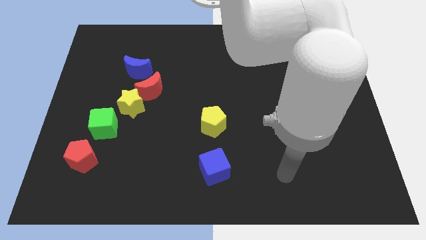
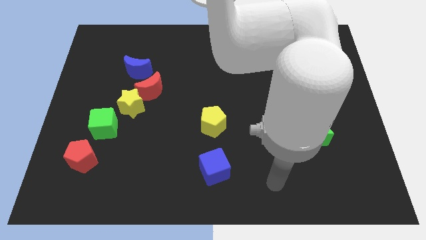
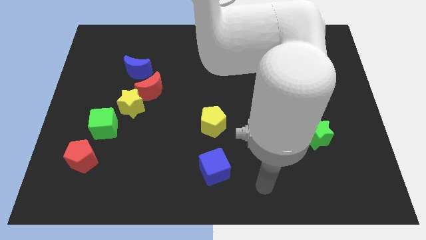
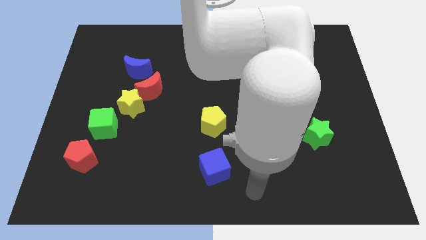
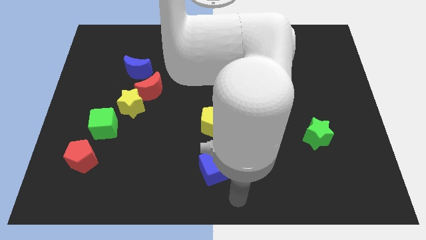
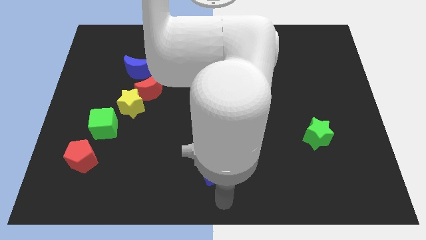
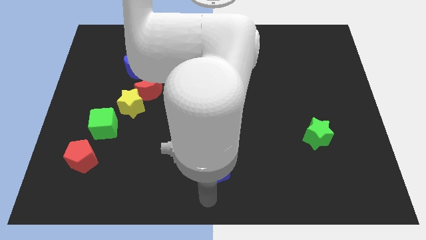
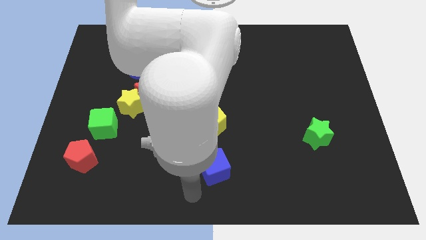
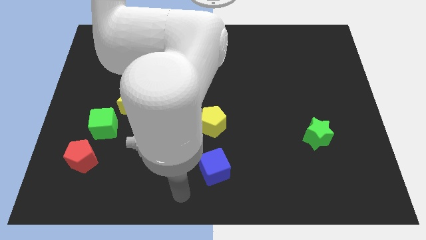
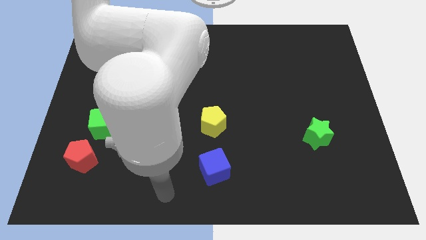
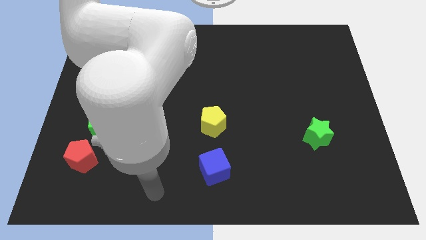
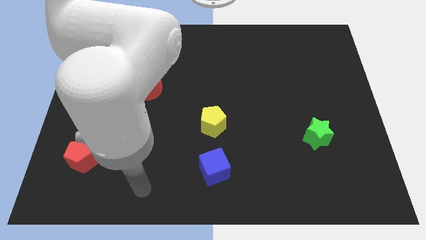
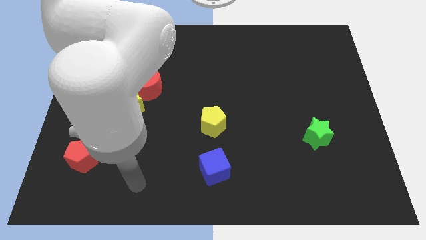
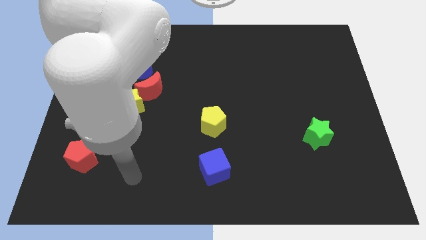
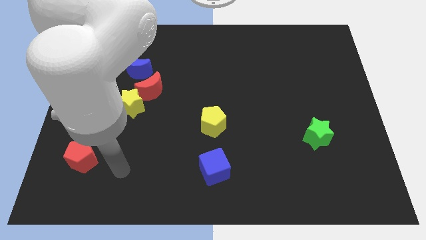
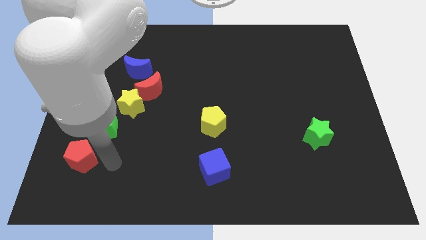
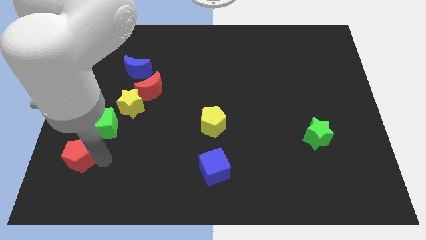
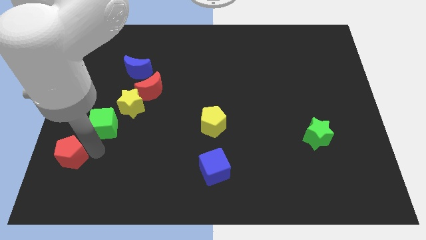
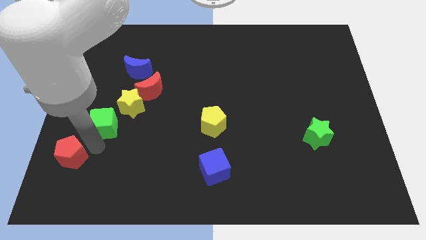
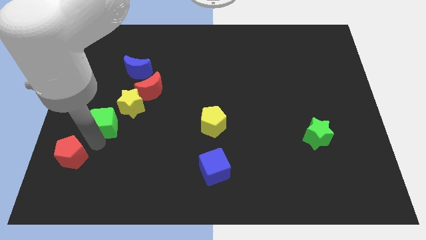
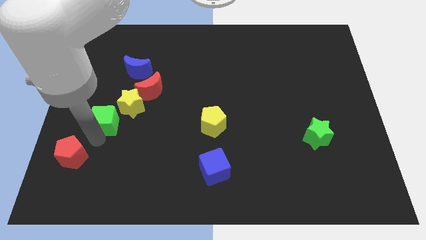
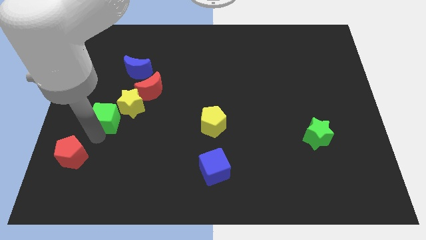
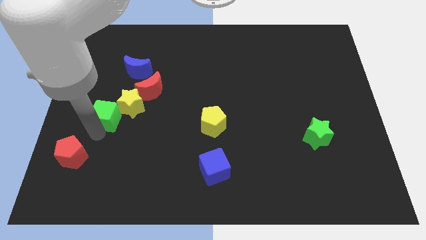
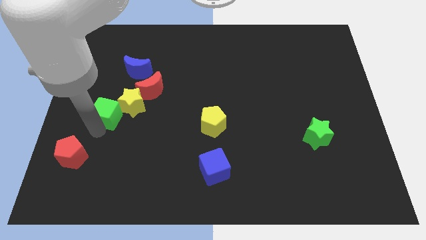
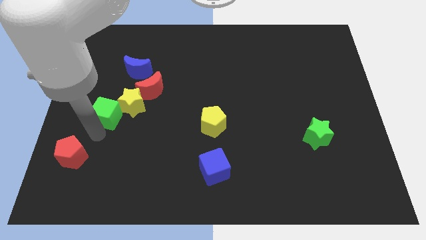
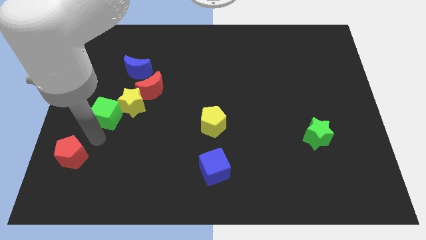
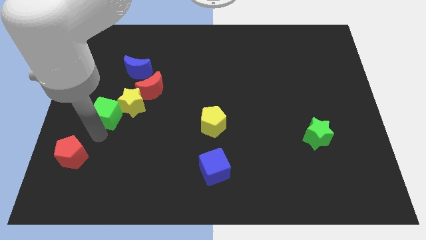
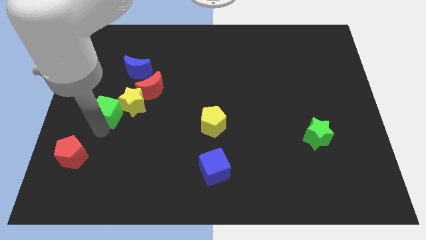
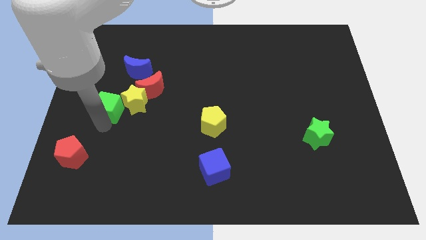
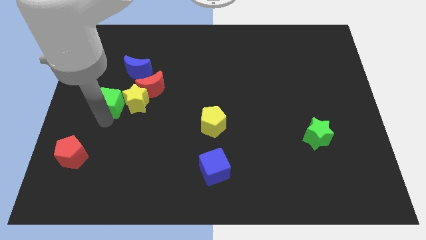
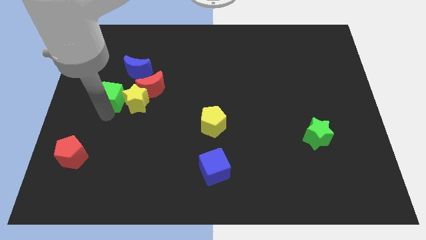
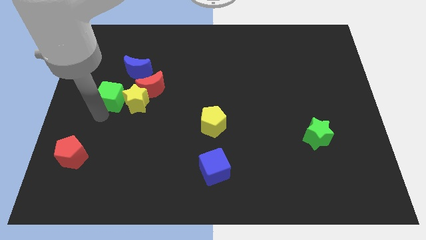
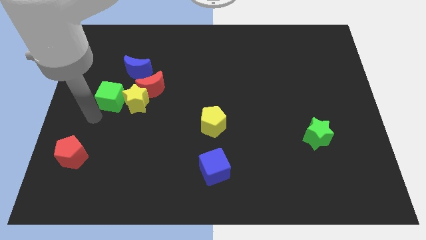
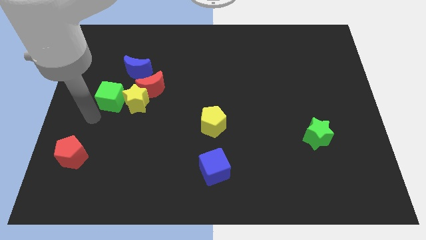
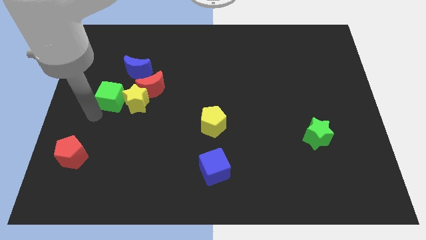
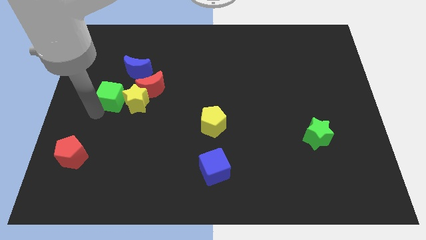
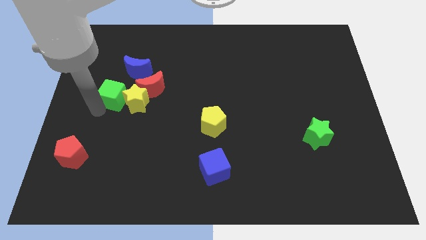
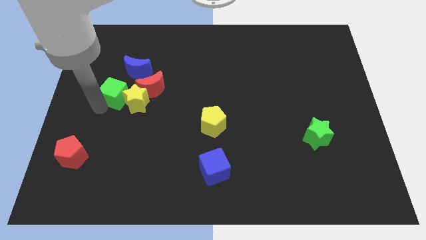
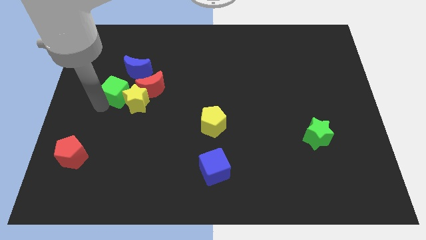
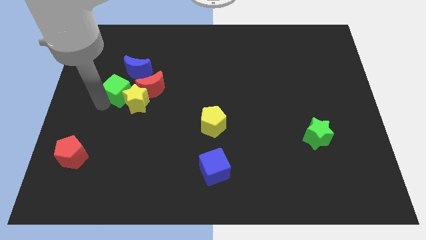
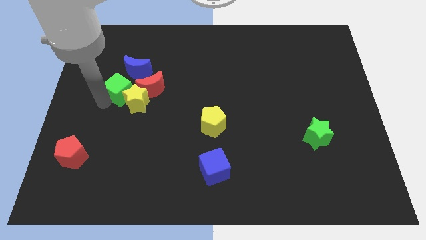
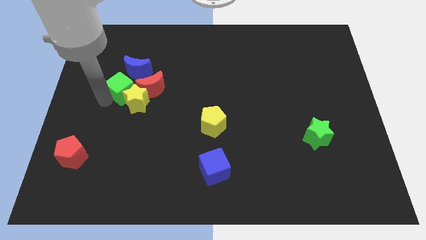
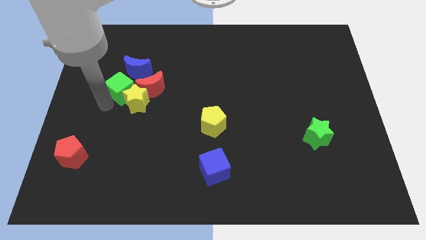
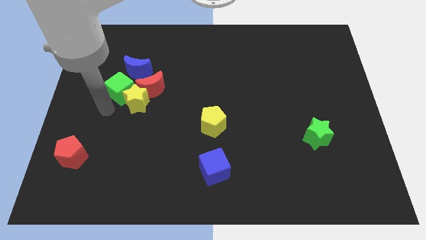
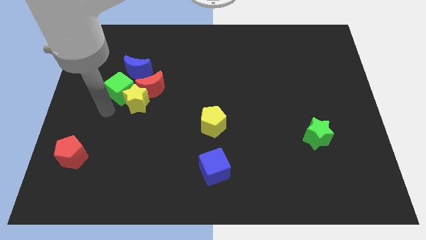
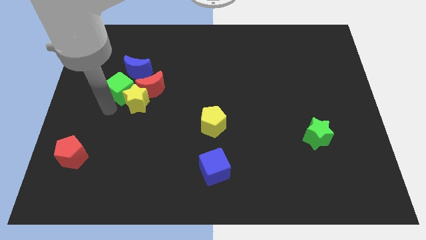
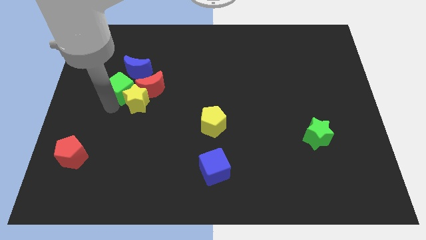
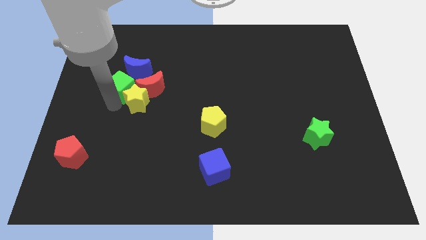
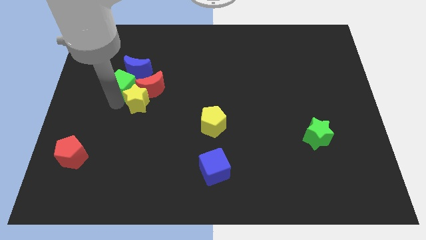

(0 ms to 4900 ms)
put the green cube close to the blue moon

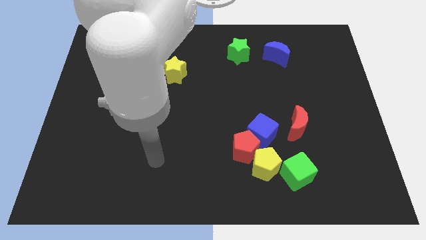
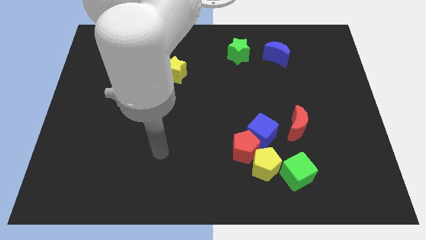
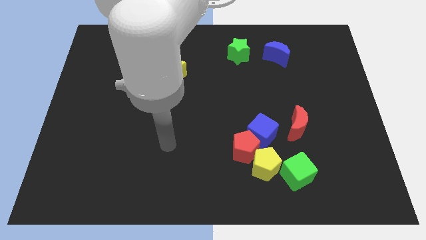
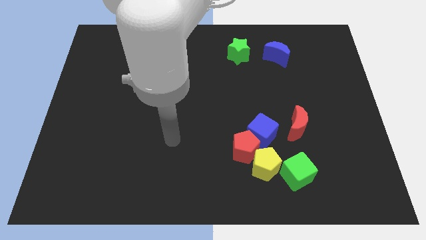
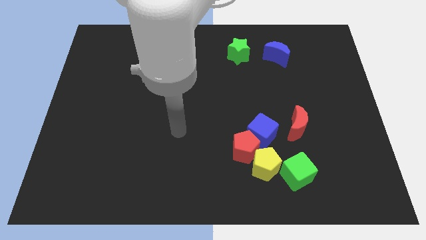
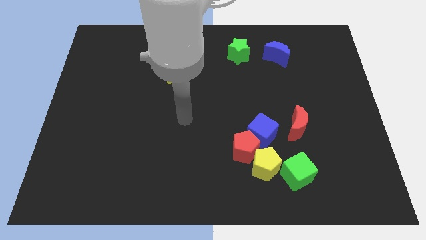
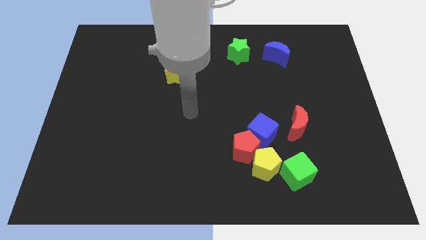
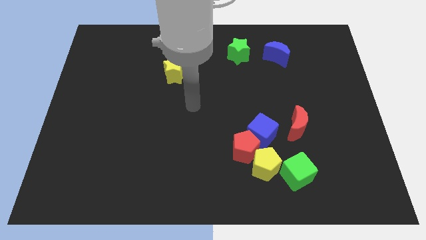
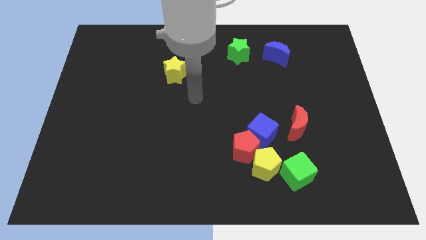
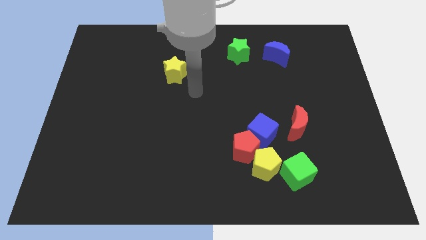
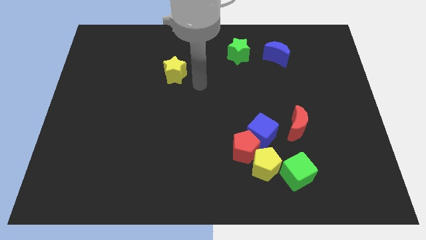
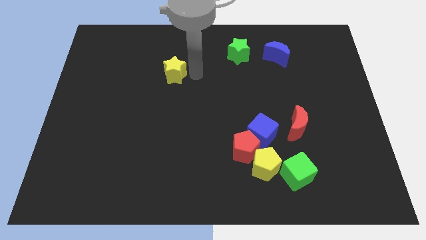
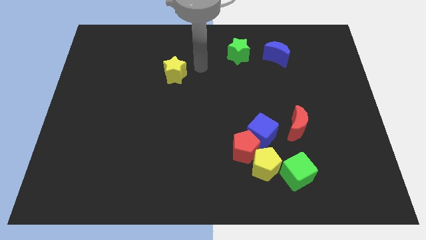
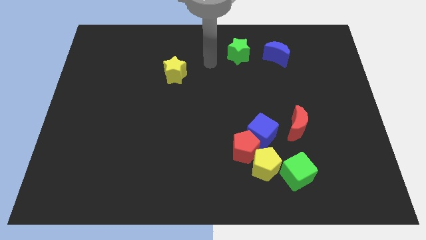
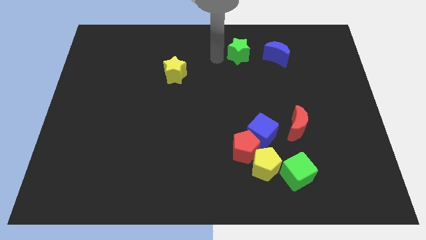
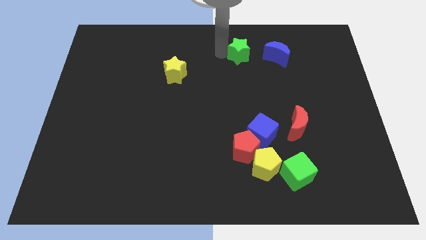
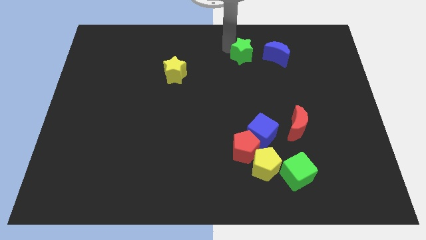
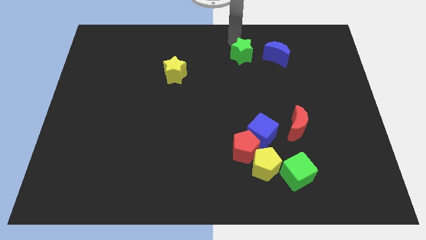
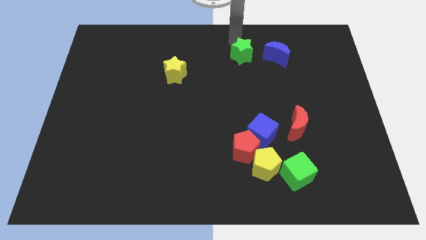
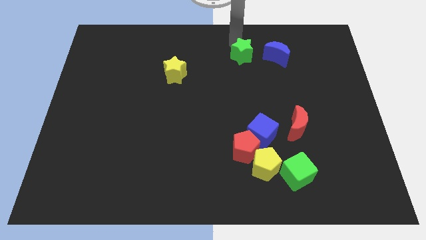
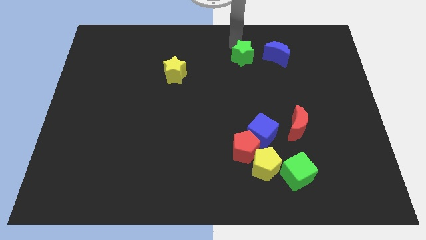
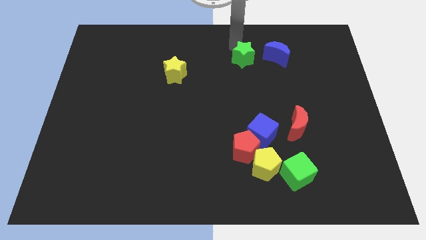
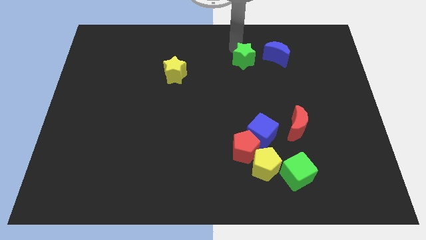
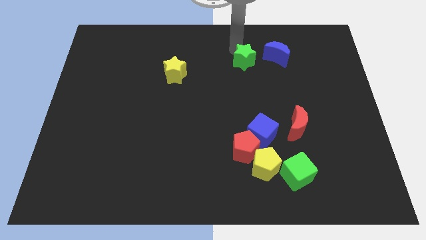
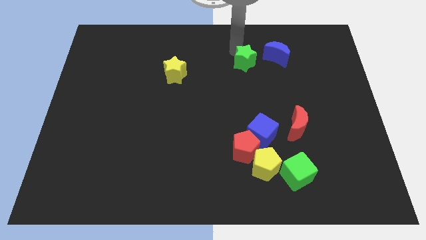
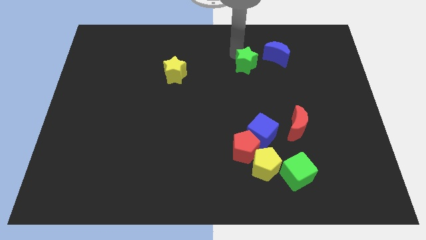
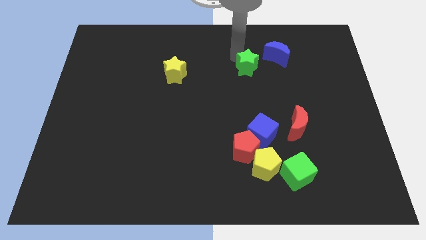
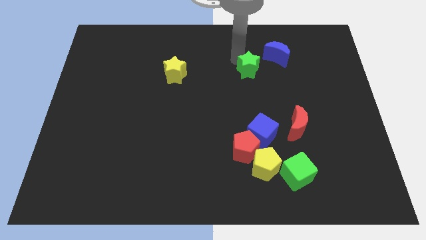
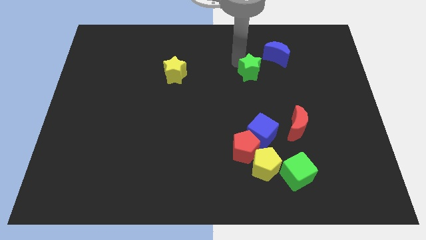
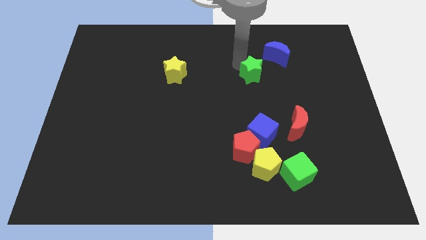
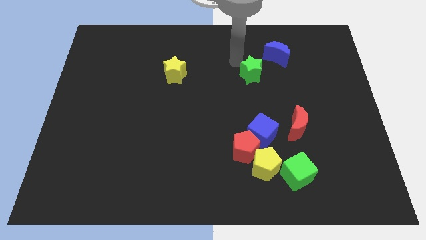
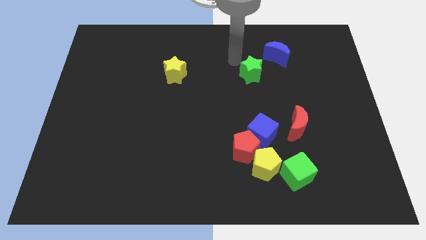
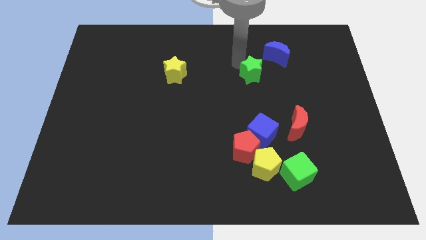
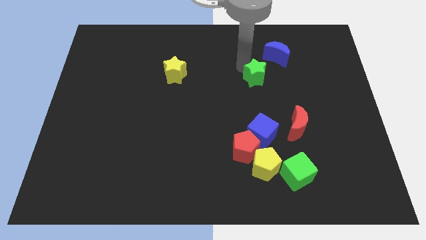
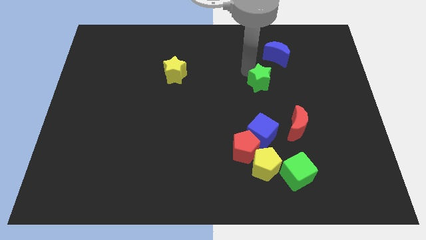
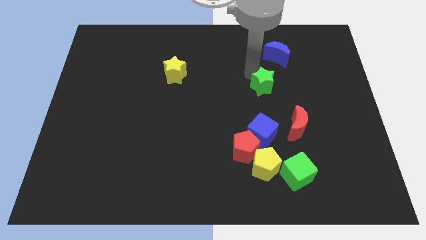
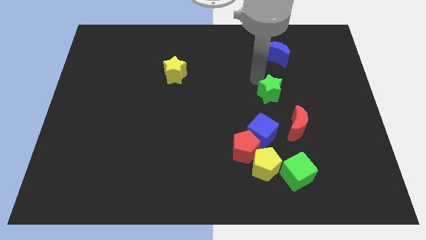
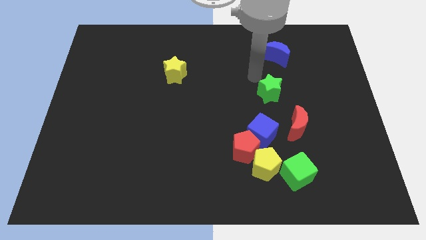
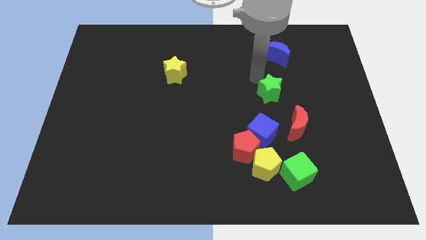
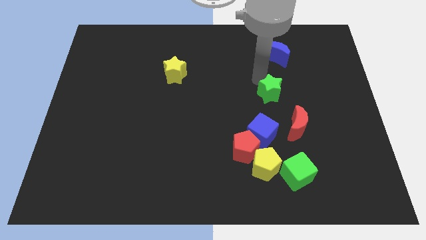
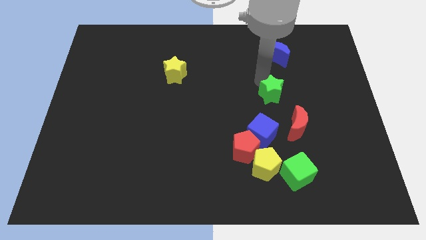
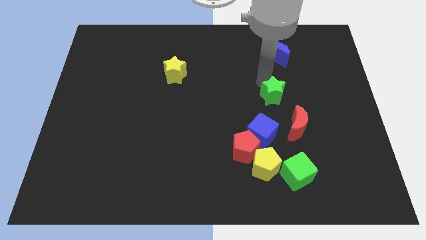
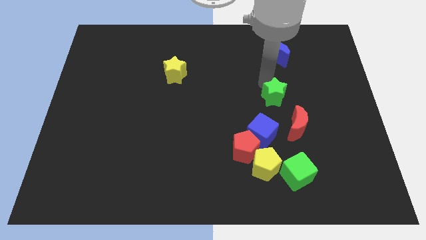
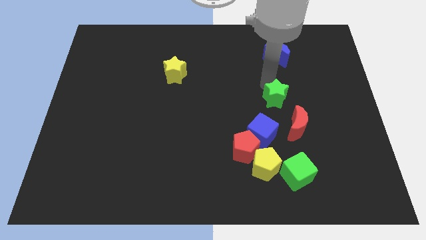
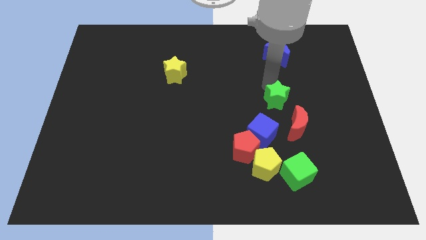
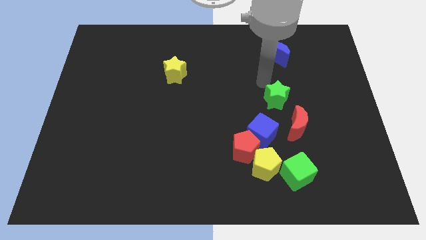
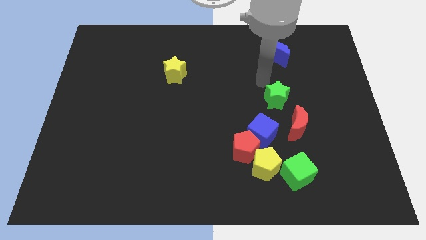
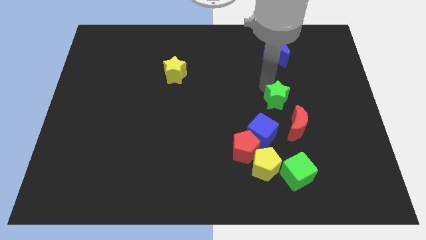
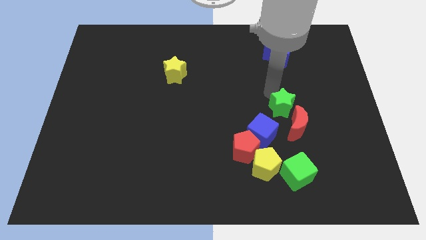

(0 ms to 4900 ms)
slide the green star to the red moon
